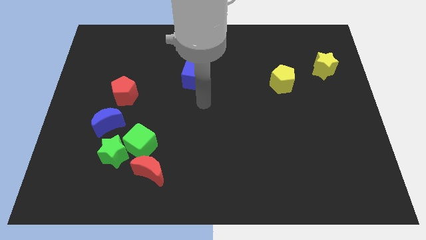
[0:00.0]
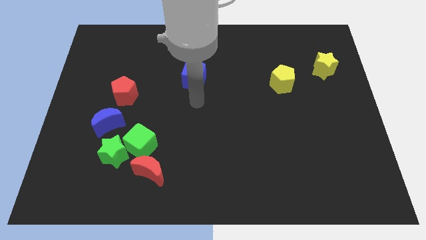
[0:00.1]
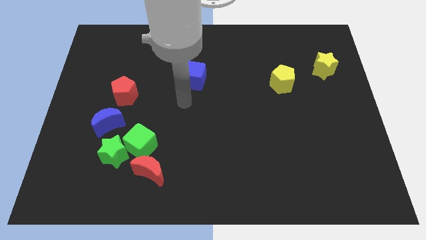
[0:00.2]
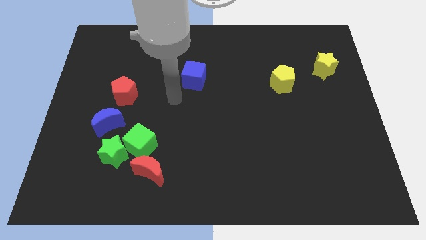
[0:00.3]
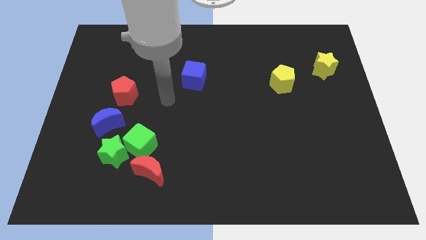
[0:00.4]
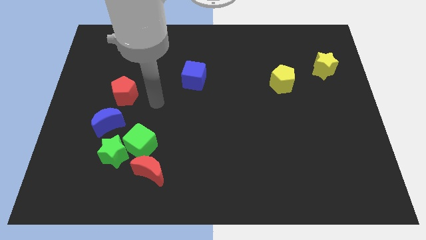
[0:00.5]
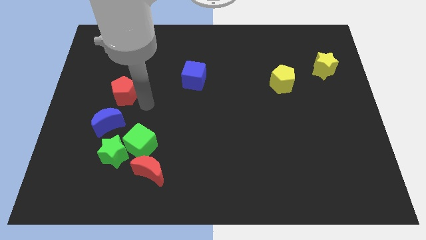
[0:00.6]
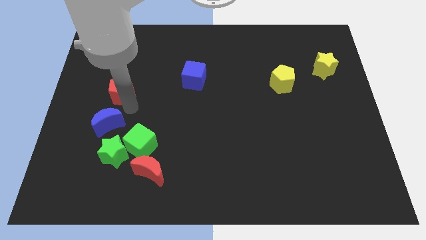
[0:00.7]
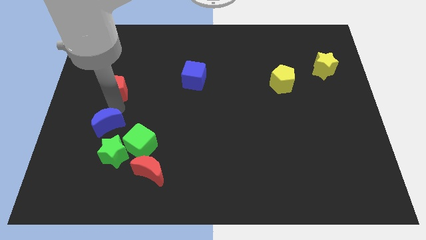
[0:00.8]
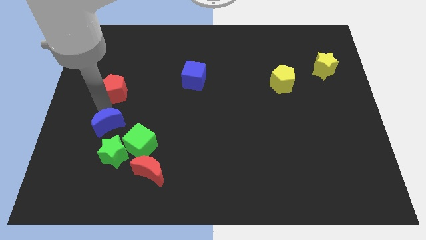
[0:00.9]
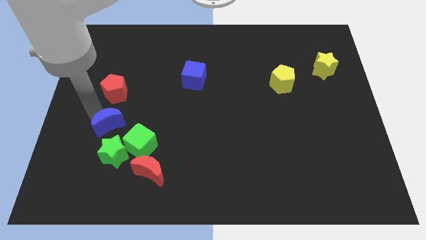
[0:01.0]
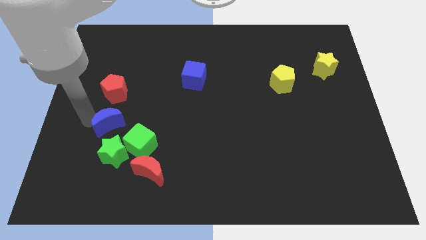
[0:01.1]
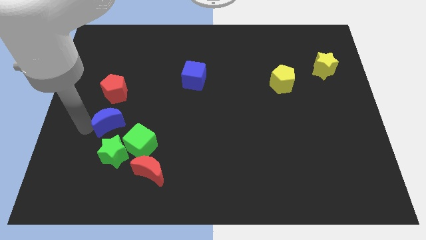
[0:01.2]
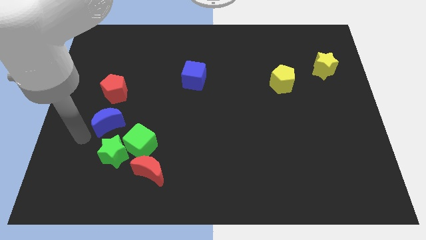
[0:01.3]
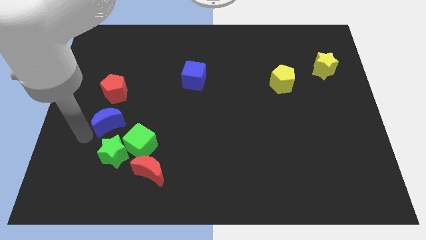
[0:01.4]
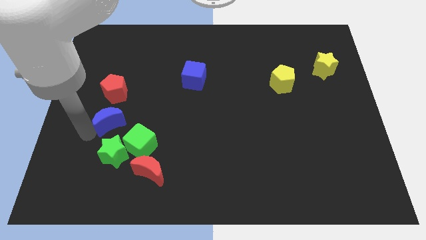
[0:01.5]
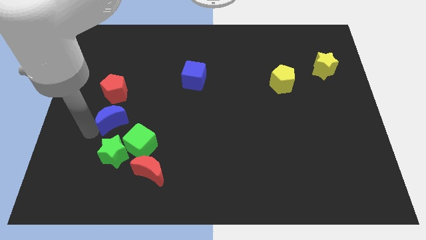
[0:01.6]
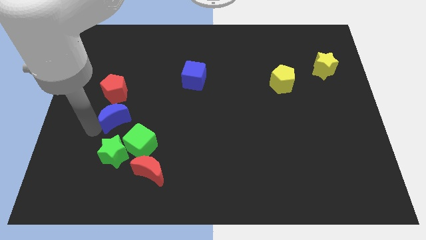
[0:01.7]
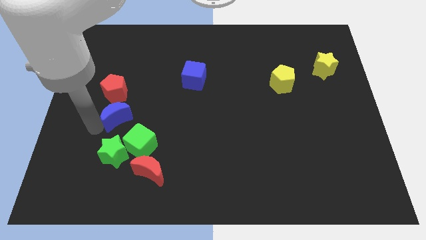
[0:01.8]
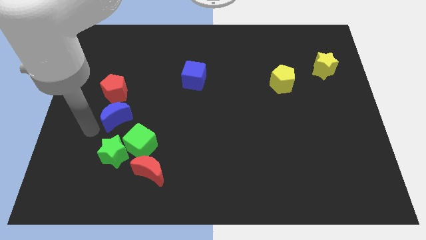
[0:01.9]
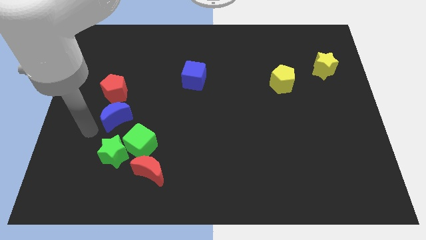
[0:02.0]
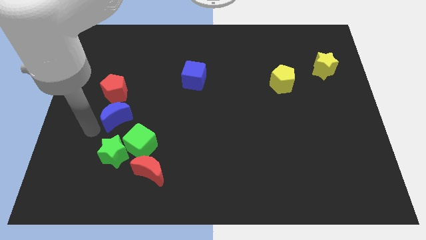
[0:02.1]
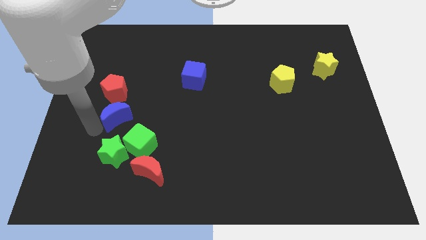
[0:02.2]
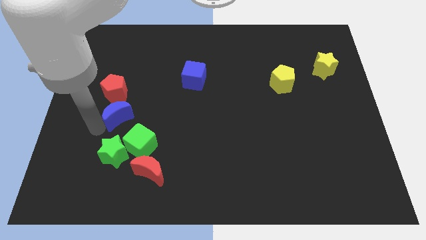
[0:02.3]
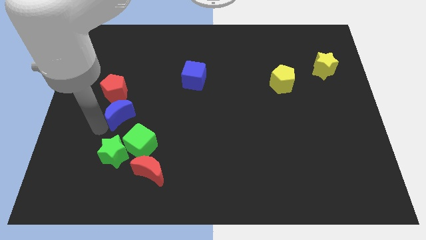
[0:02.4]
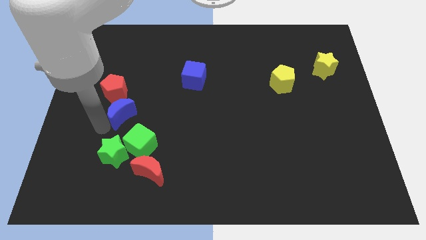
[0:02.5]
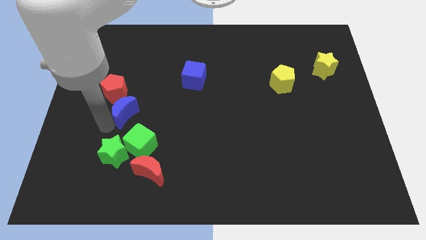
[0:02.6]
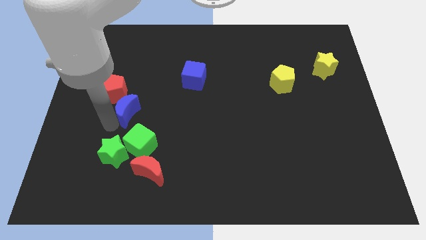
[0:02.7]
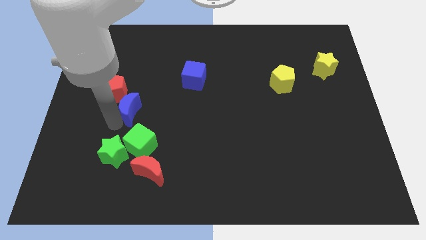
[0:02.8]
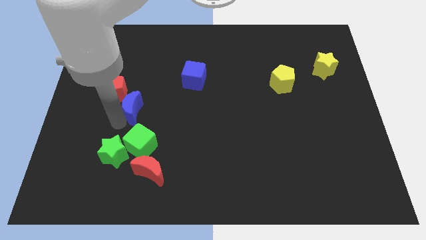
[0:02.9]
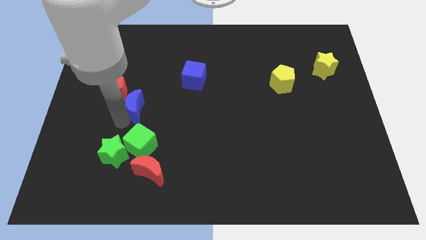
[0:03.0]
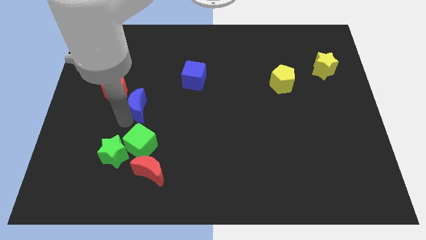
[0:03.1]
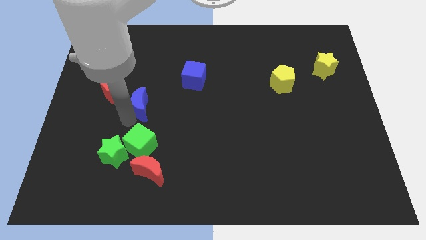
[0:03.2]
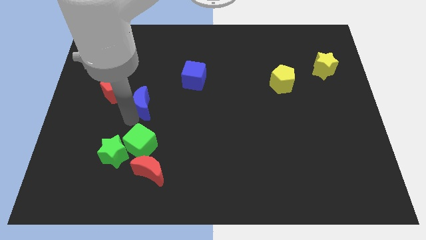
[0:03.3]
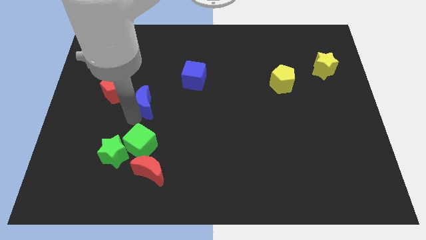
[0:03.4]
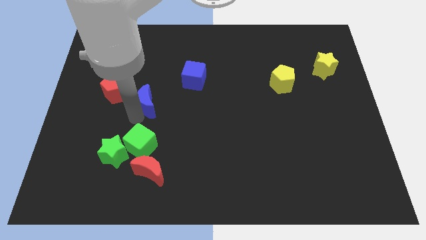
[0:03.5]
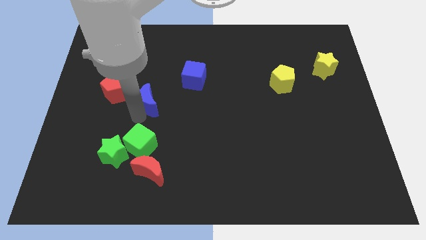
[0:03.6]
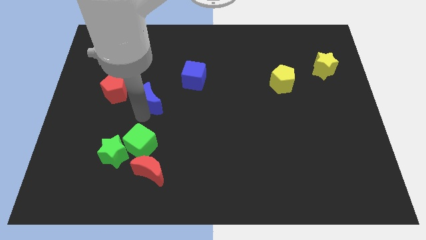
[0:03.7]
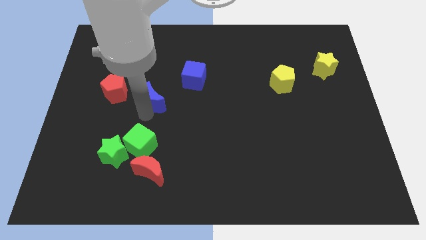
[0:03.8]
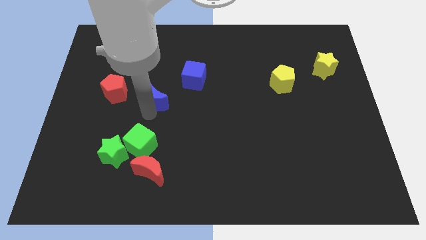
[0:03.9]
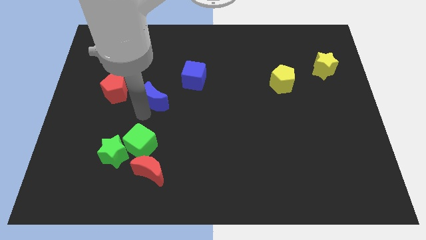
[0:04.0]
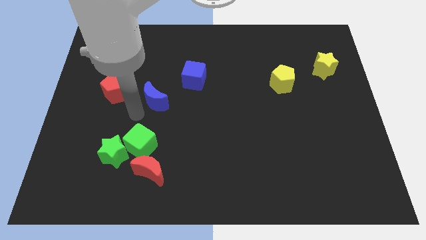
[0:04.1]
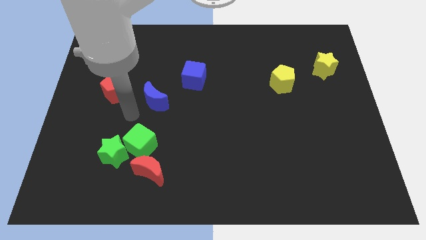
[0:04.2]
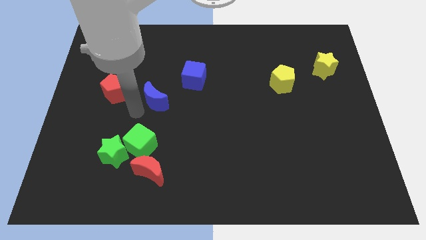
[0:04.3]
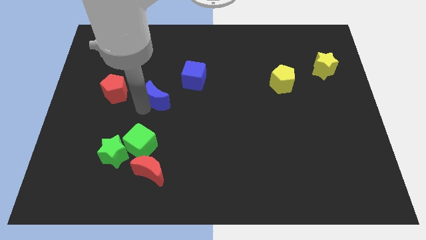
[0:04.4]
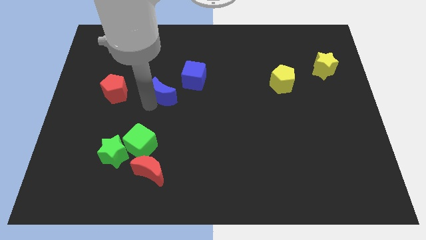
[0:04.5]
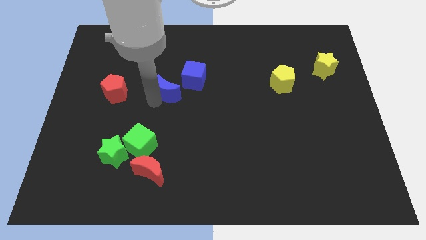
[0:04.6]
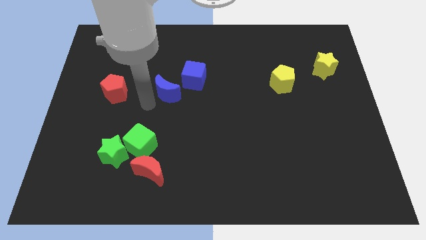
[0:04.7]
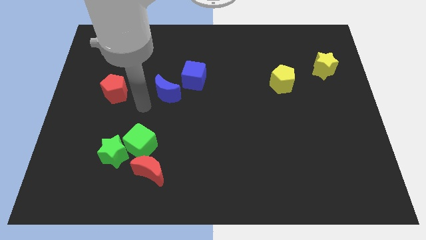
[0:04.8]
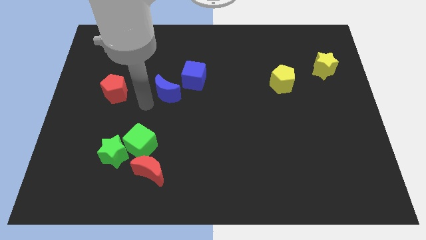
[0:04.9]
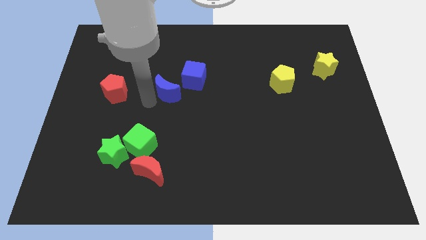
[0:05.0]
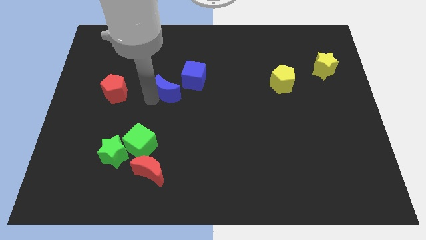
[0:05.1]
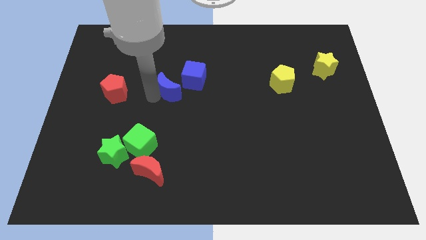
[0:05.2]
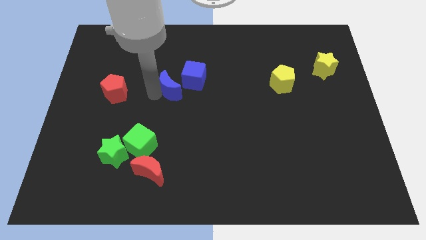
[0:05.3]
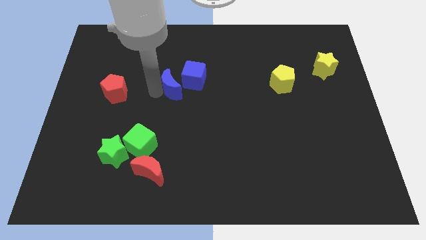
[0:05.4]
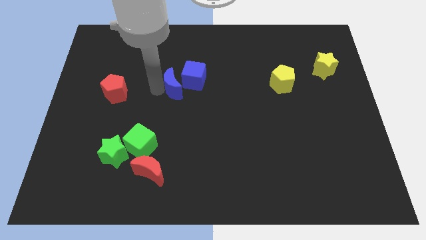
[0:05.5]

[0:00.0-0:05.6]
push the blue moon towards the blue cube

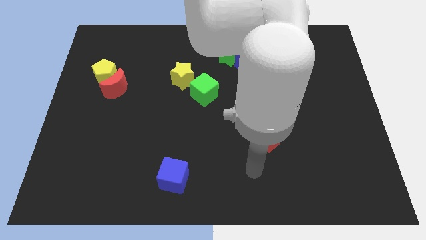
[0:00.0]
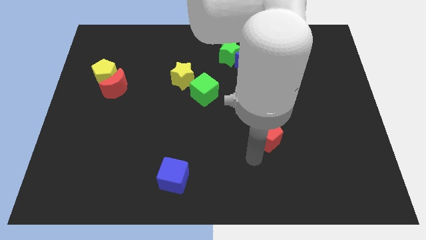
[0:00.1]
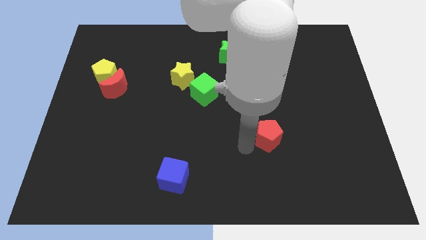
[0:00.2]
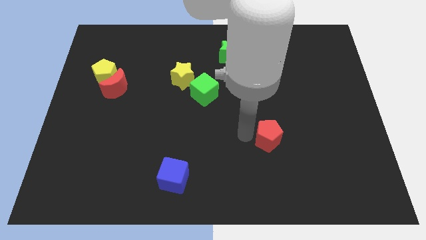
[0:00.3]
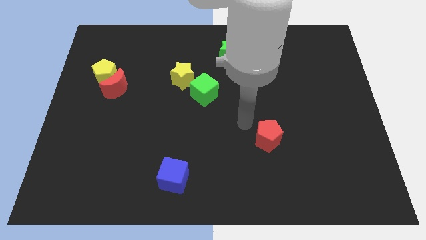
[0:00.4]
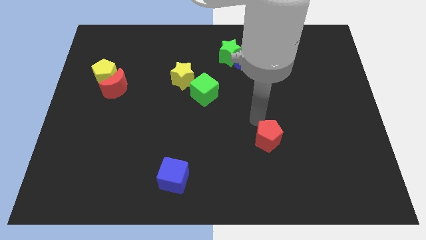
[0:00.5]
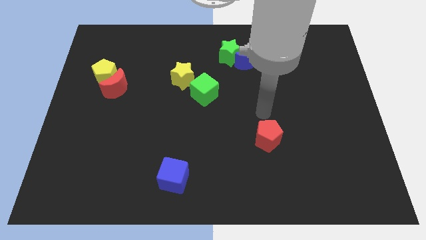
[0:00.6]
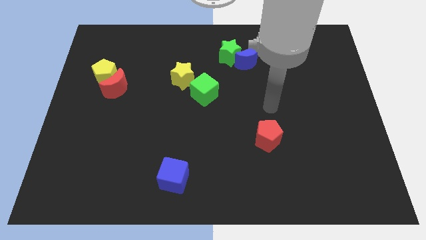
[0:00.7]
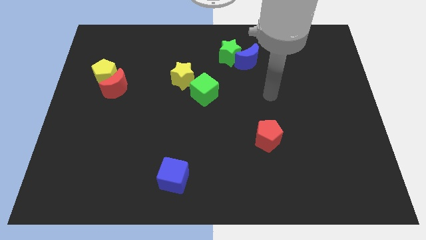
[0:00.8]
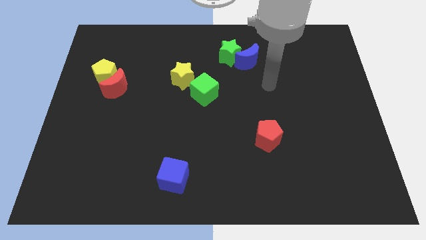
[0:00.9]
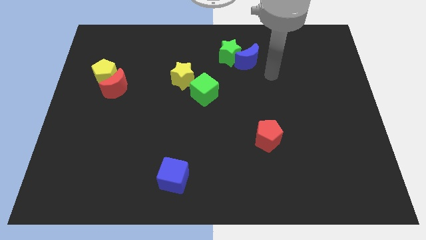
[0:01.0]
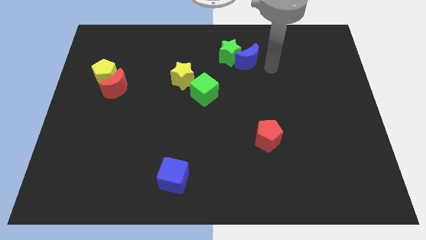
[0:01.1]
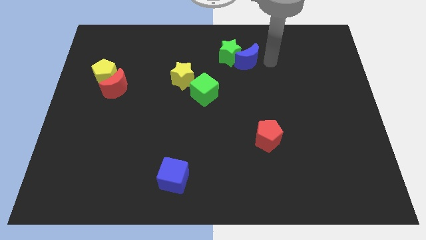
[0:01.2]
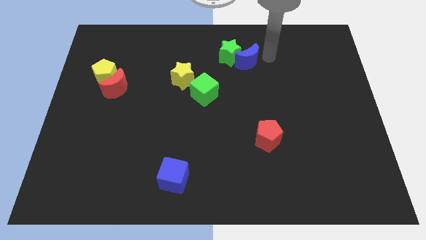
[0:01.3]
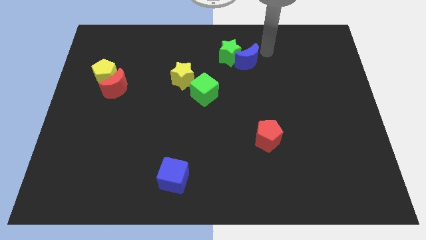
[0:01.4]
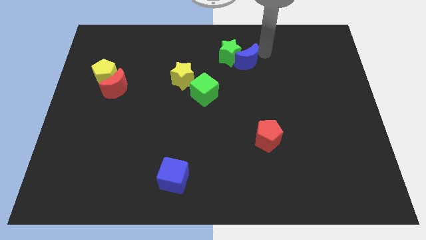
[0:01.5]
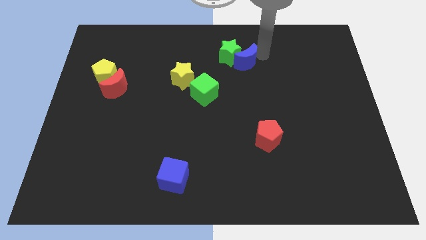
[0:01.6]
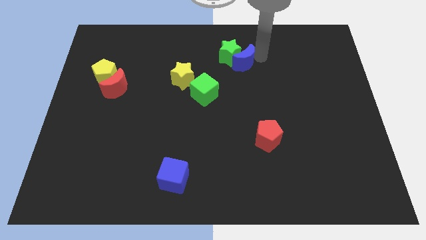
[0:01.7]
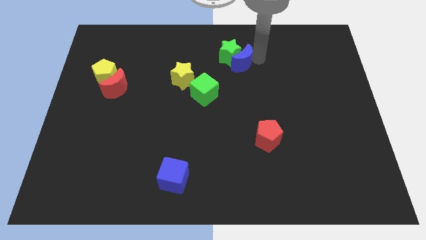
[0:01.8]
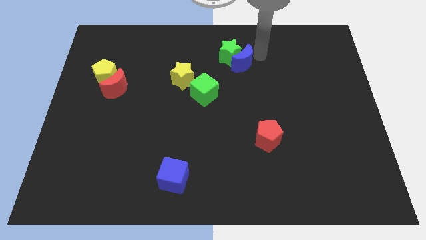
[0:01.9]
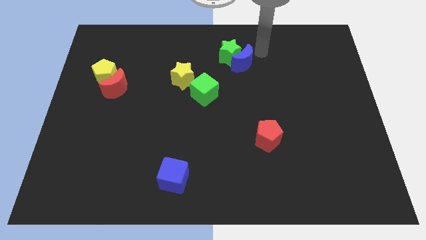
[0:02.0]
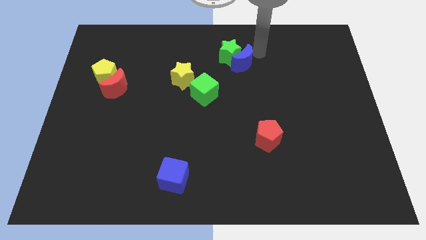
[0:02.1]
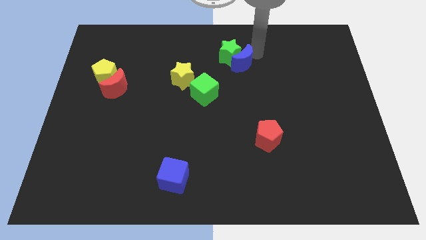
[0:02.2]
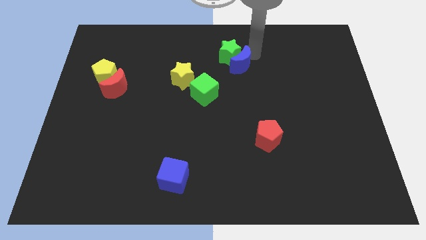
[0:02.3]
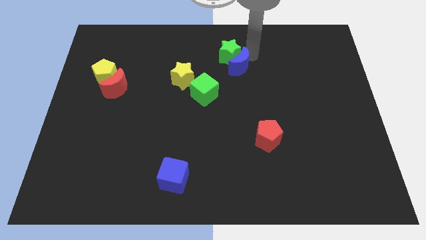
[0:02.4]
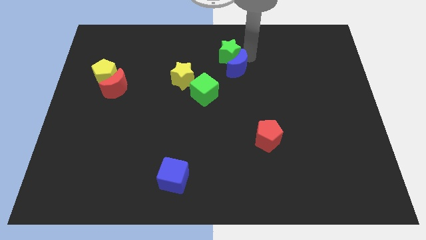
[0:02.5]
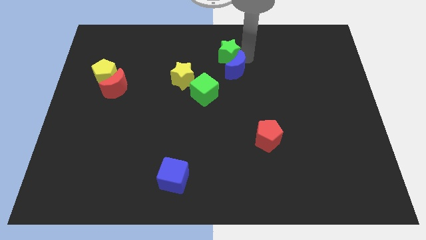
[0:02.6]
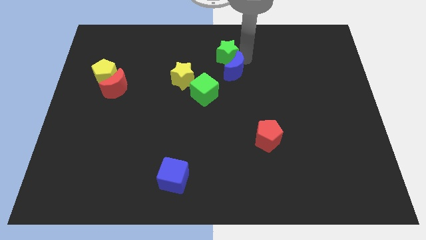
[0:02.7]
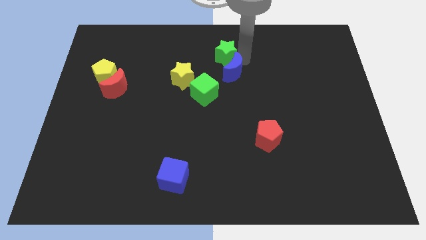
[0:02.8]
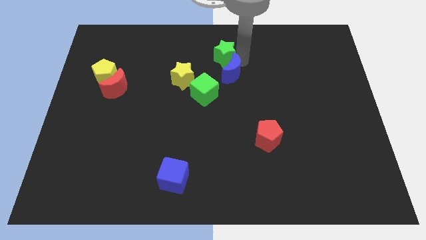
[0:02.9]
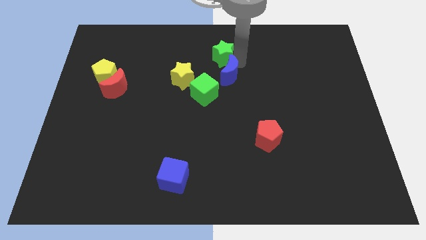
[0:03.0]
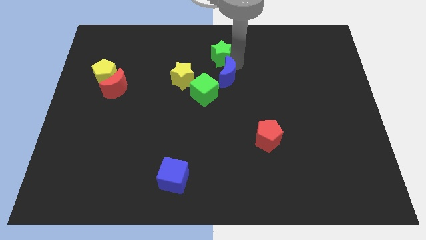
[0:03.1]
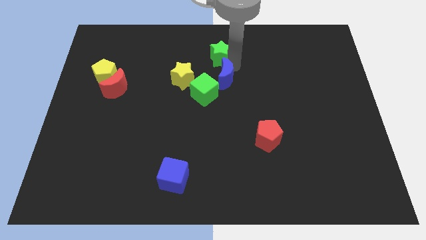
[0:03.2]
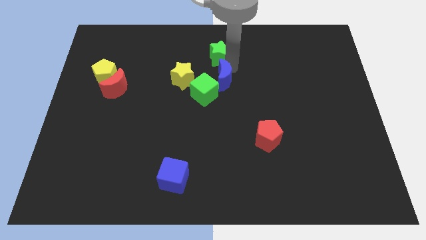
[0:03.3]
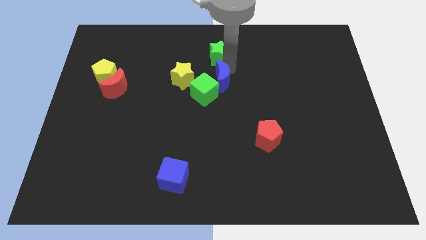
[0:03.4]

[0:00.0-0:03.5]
slide the blue moon close to the green cube
